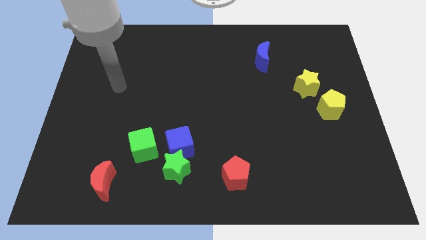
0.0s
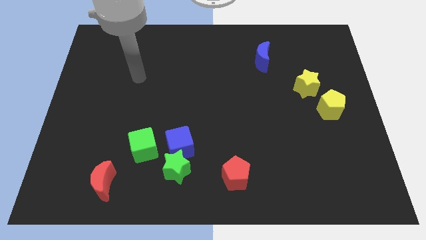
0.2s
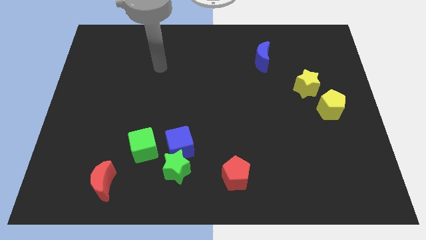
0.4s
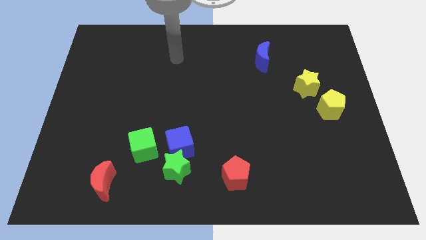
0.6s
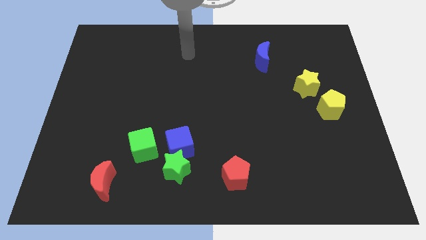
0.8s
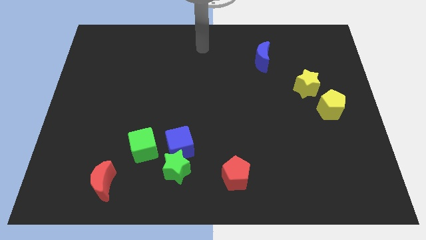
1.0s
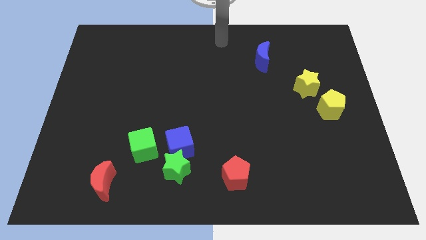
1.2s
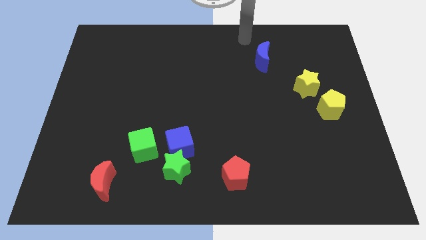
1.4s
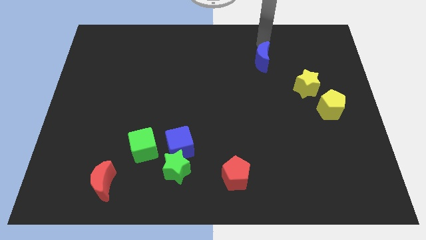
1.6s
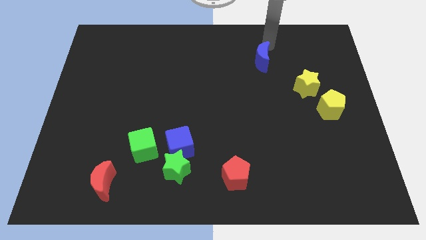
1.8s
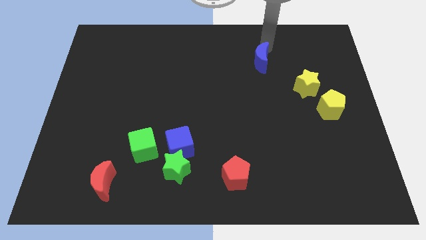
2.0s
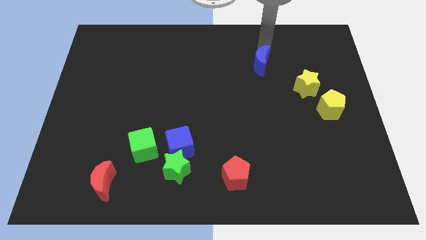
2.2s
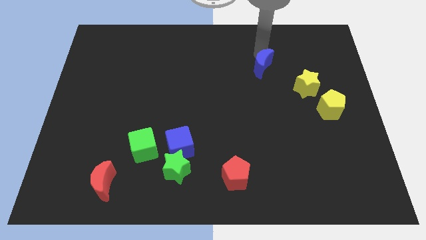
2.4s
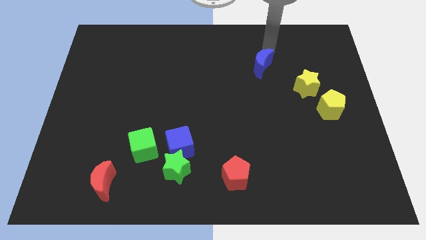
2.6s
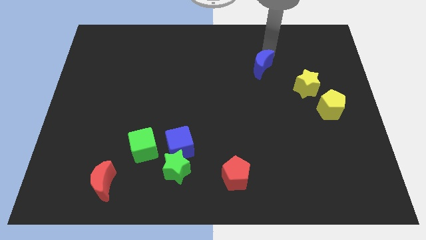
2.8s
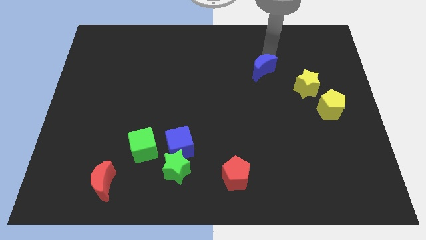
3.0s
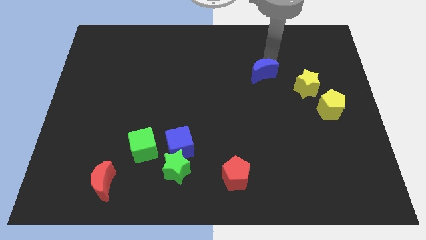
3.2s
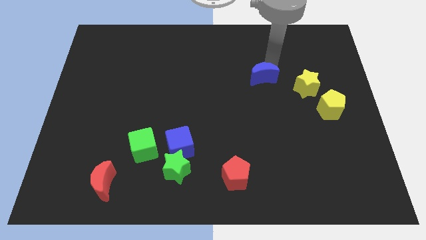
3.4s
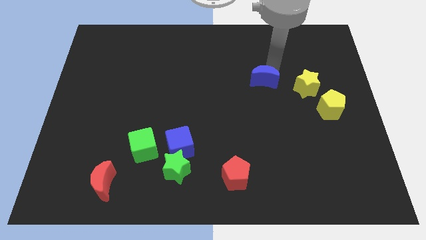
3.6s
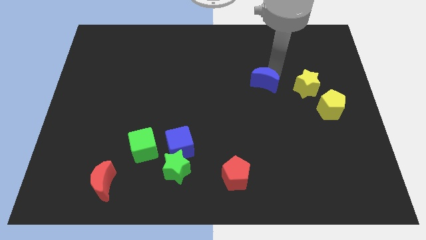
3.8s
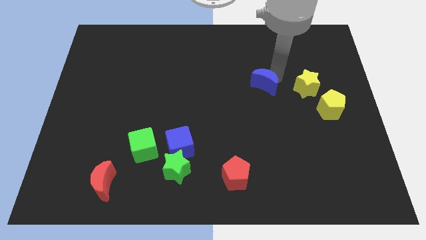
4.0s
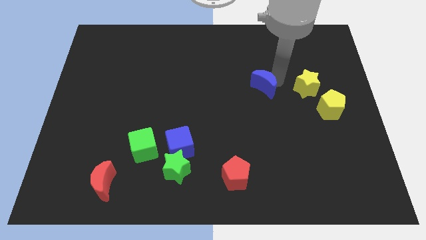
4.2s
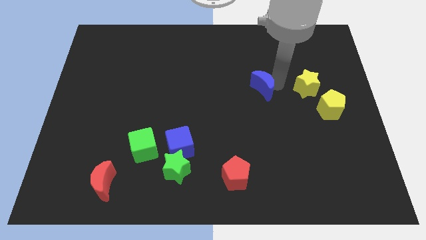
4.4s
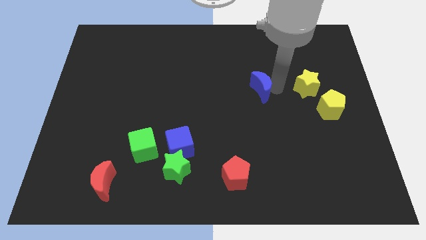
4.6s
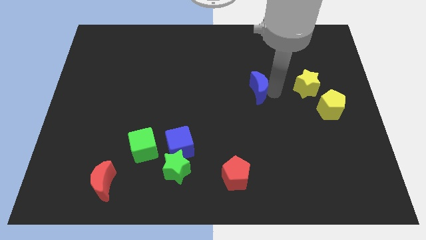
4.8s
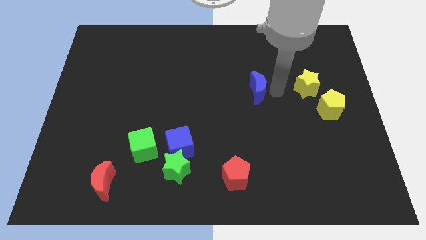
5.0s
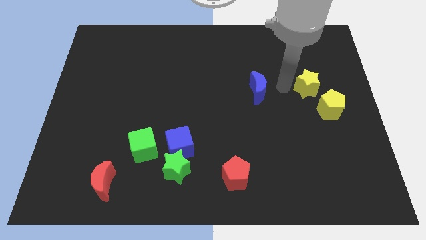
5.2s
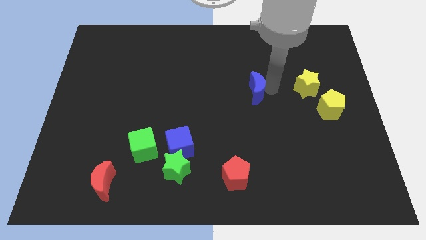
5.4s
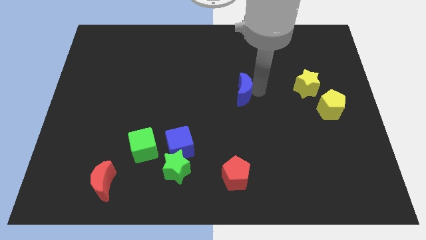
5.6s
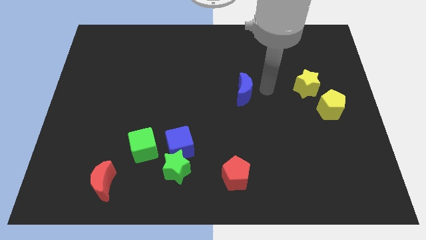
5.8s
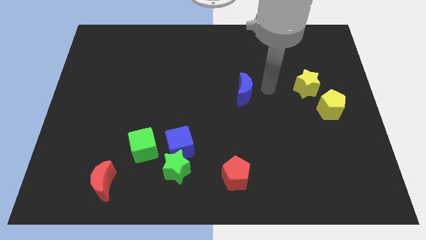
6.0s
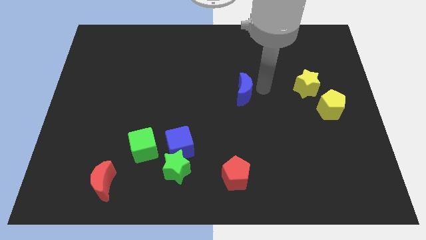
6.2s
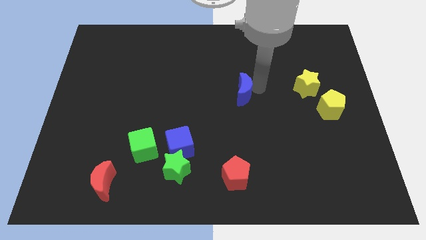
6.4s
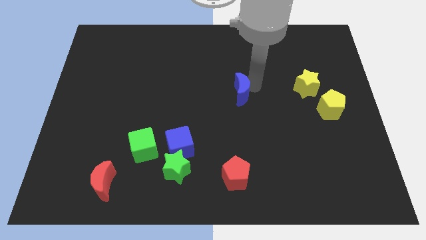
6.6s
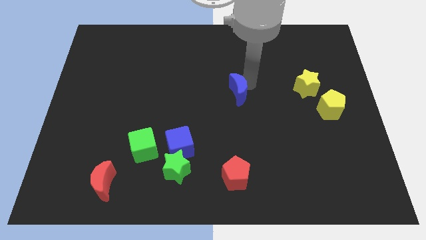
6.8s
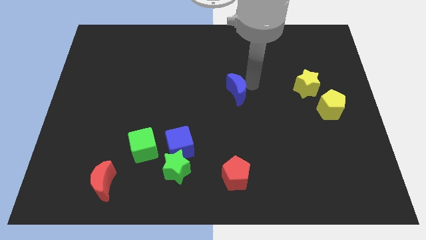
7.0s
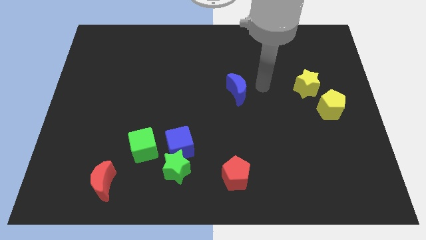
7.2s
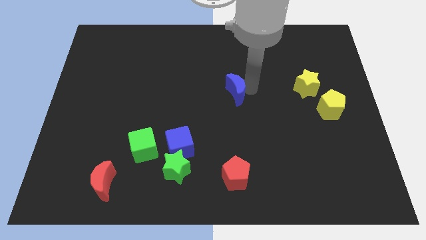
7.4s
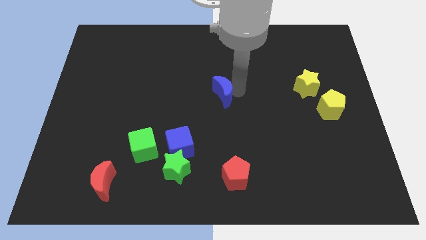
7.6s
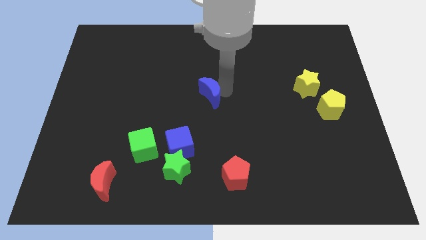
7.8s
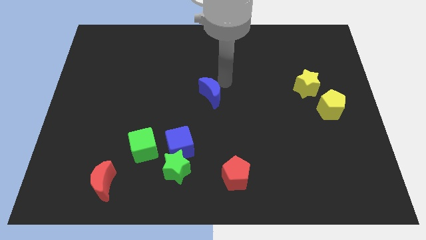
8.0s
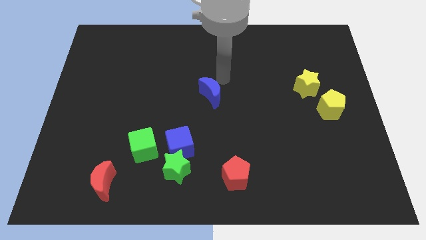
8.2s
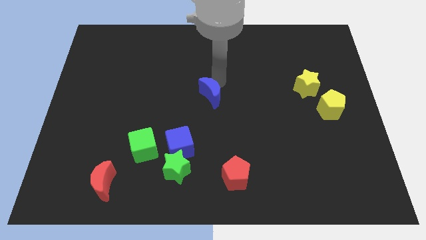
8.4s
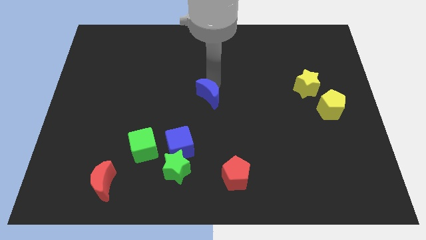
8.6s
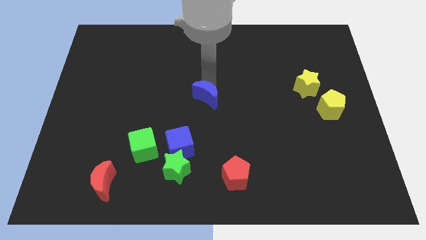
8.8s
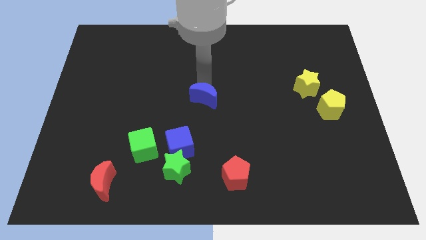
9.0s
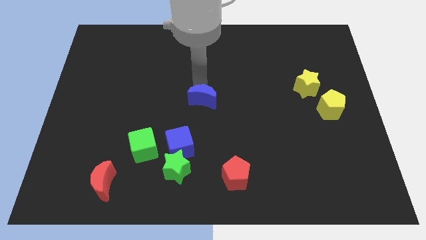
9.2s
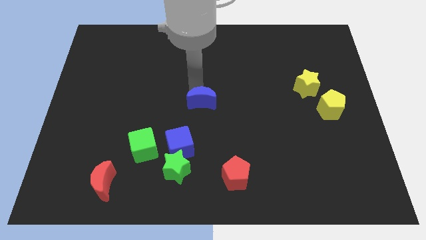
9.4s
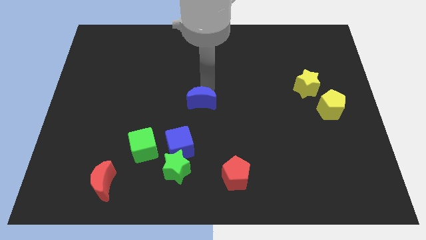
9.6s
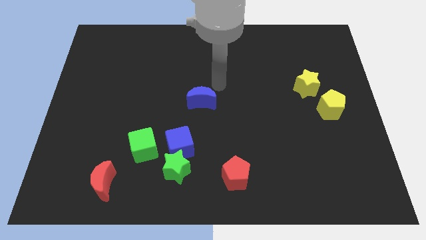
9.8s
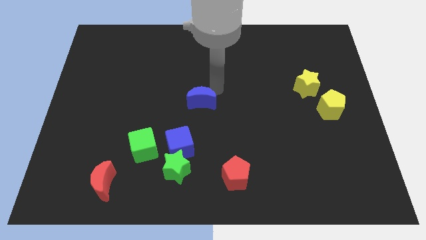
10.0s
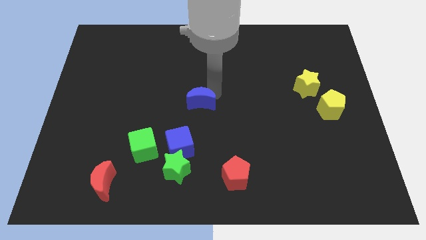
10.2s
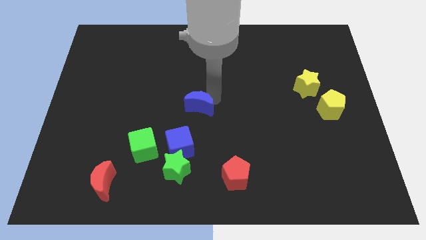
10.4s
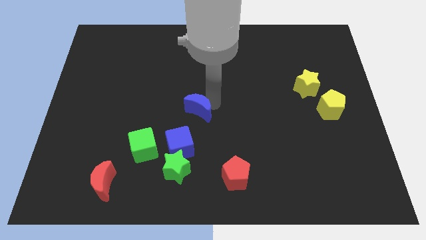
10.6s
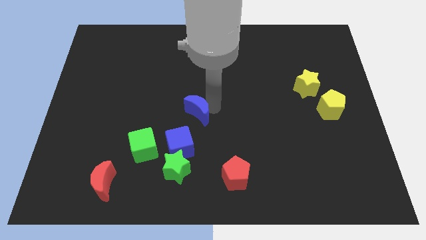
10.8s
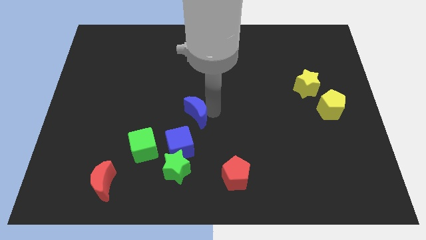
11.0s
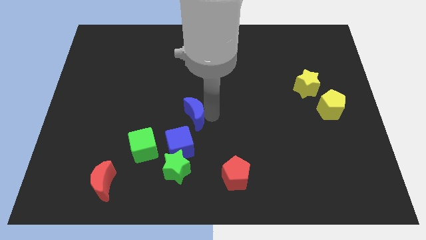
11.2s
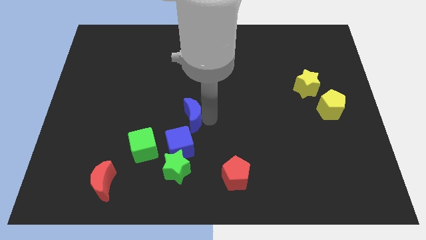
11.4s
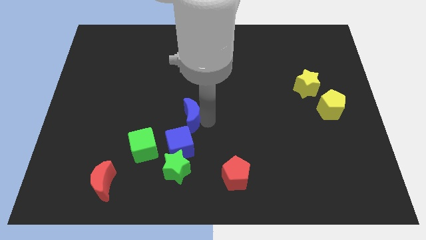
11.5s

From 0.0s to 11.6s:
move the blue moon diagonally up and to the right of the green cube

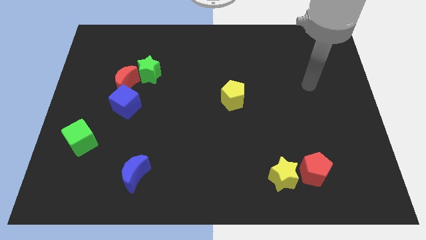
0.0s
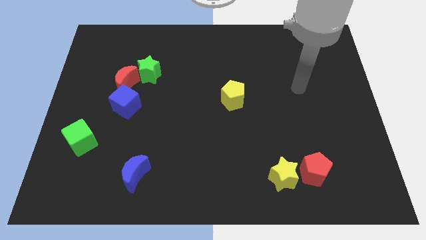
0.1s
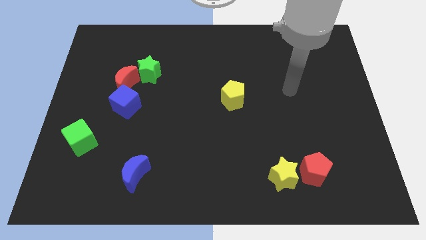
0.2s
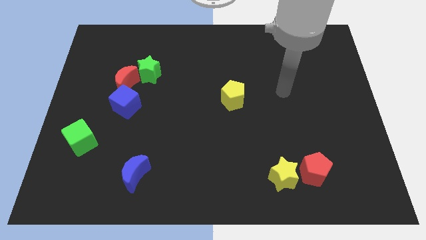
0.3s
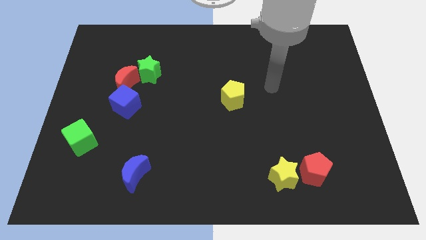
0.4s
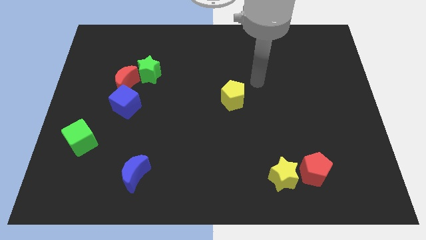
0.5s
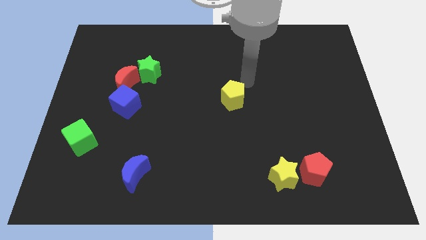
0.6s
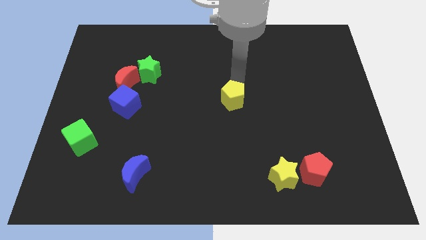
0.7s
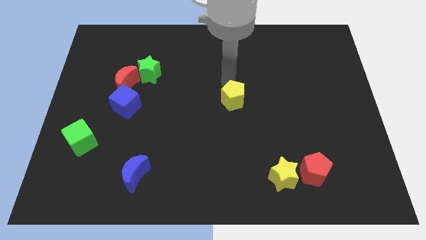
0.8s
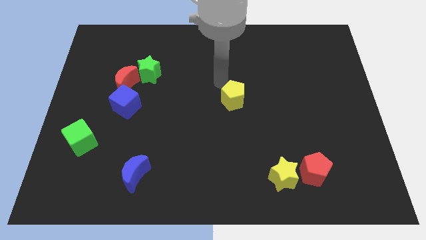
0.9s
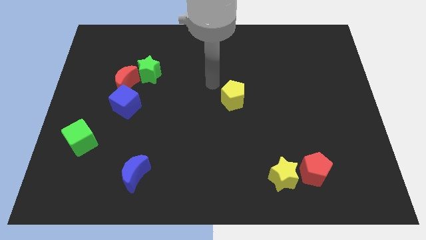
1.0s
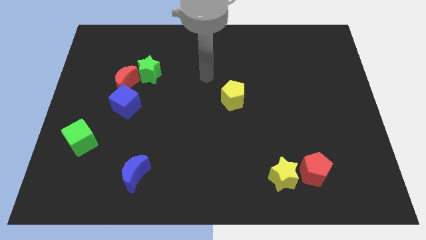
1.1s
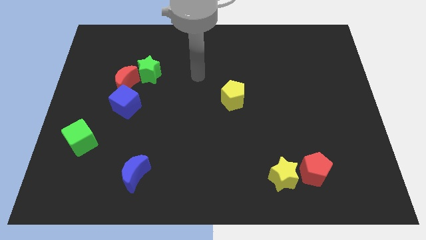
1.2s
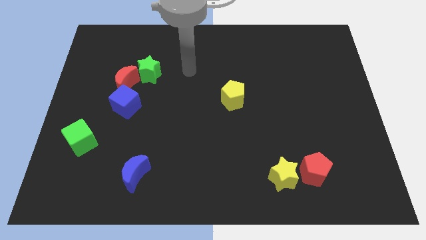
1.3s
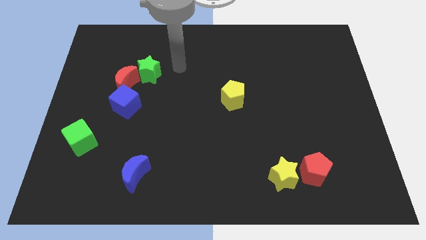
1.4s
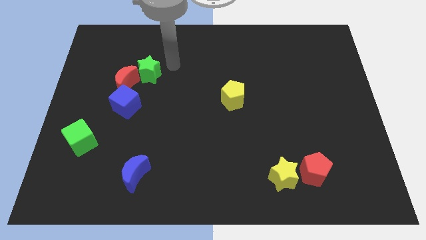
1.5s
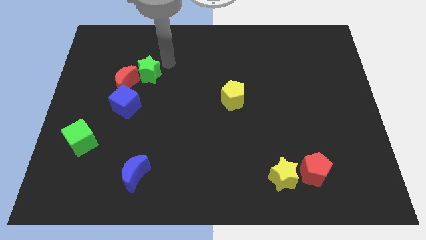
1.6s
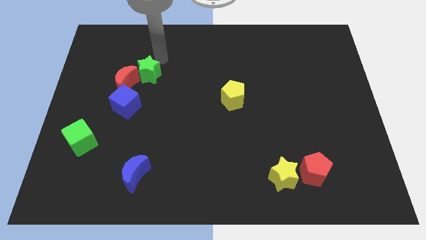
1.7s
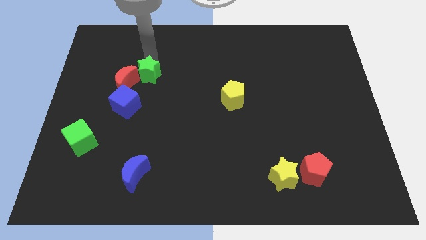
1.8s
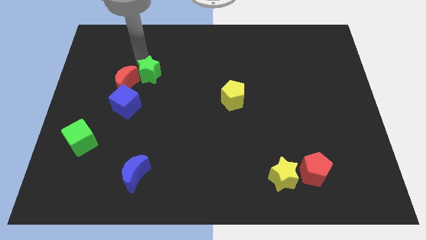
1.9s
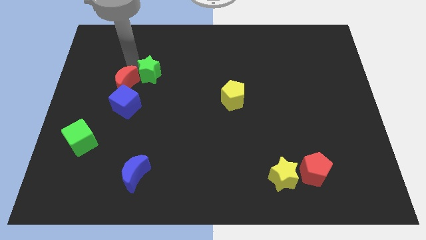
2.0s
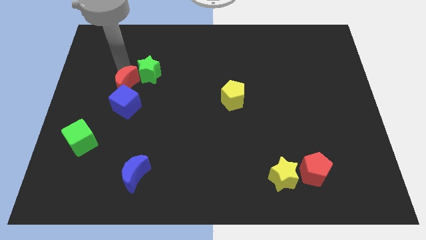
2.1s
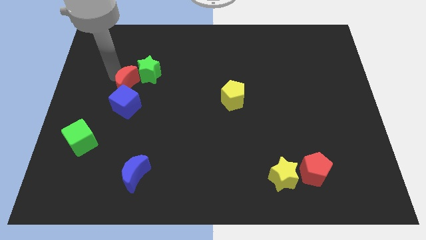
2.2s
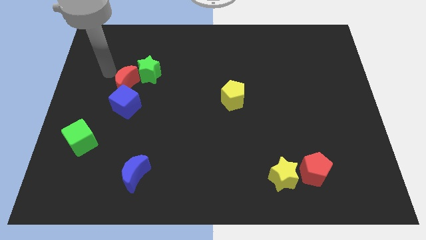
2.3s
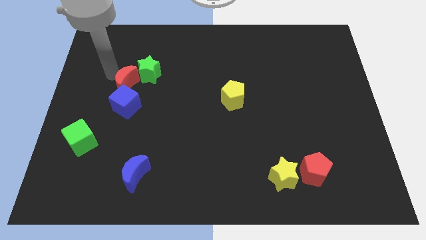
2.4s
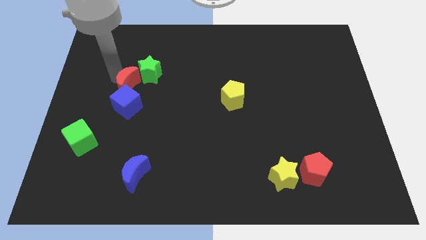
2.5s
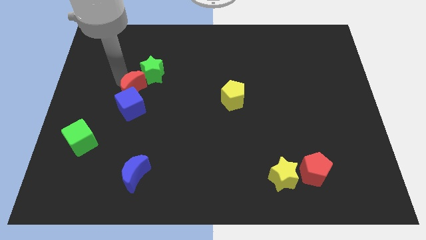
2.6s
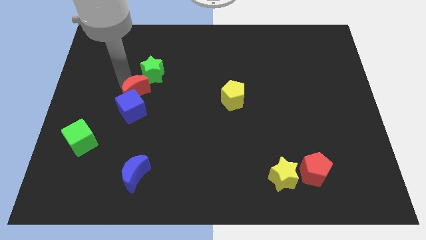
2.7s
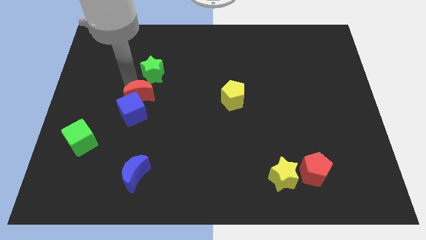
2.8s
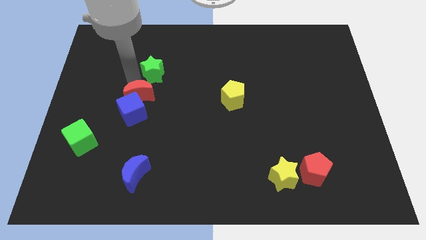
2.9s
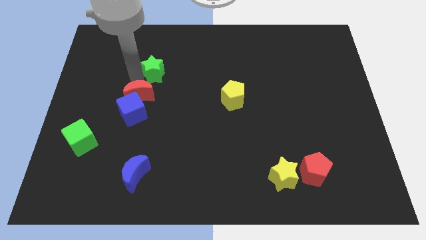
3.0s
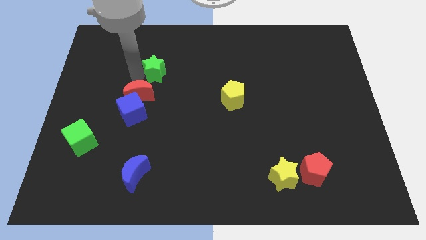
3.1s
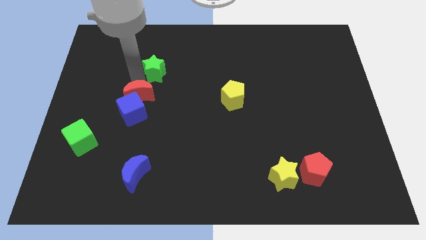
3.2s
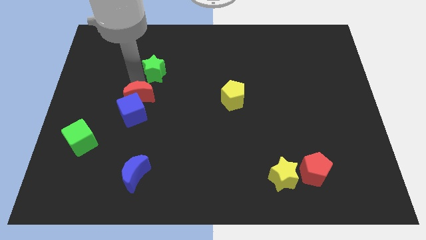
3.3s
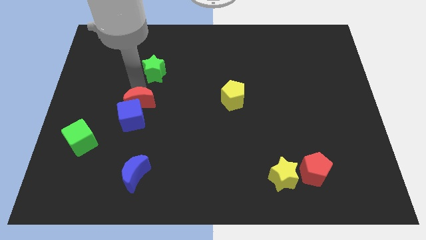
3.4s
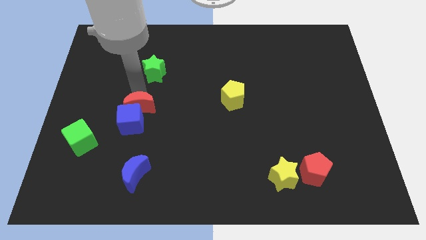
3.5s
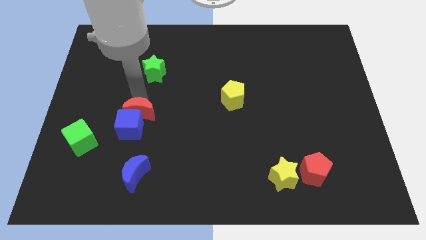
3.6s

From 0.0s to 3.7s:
slide the red moon to the top of the blue moon
